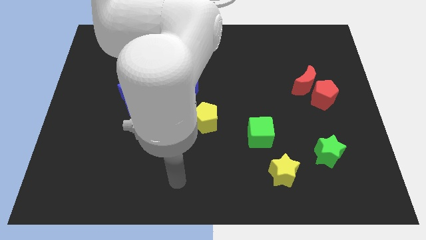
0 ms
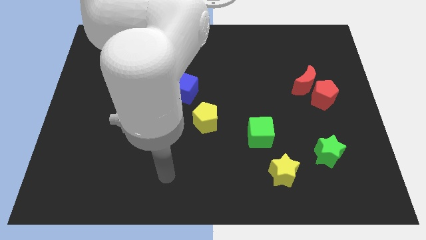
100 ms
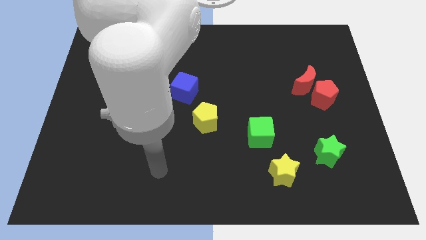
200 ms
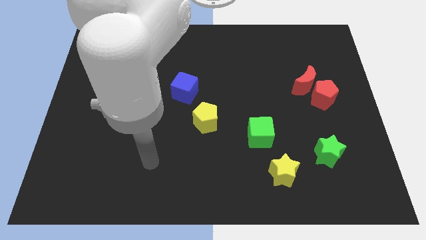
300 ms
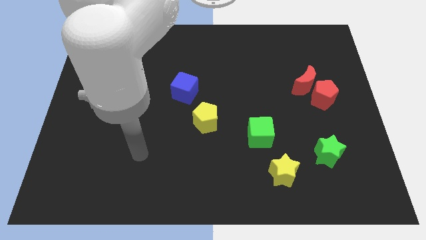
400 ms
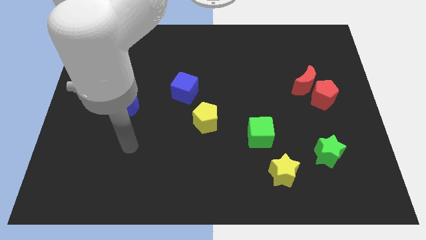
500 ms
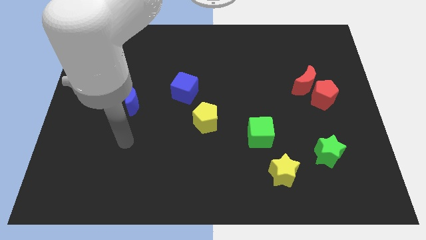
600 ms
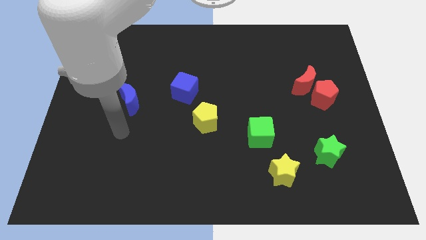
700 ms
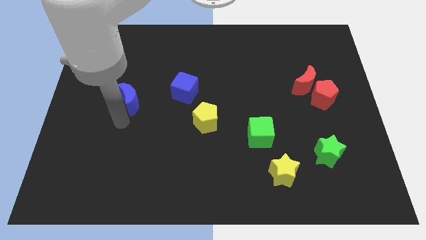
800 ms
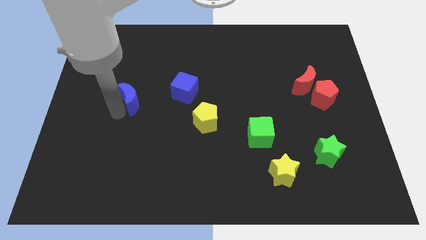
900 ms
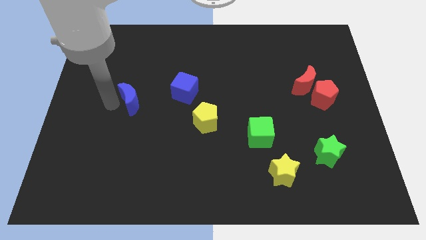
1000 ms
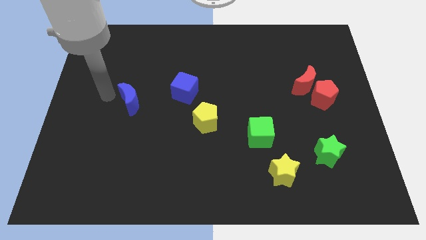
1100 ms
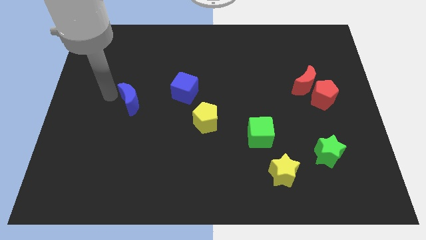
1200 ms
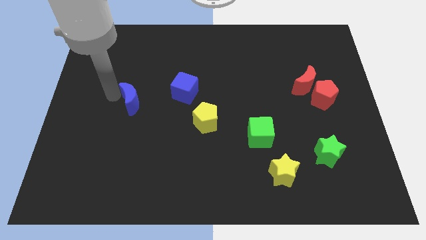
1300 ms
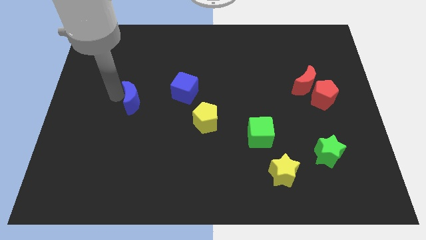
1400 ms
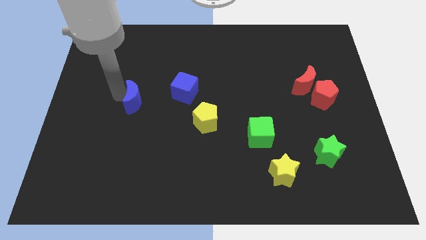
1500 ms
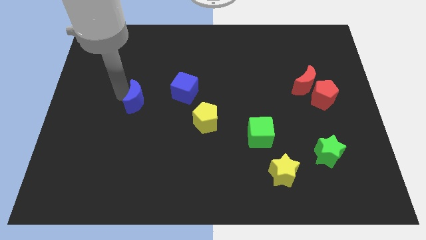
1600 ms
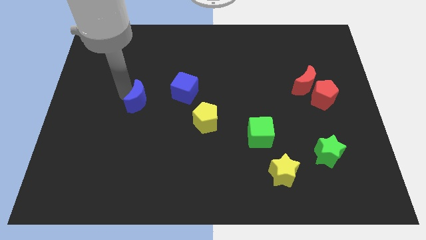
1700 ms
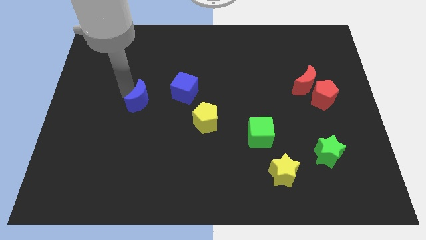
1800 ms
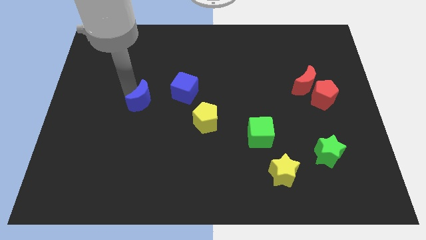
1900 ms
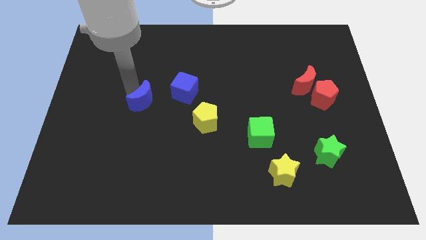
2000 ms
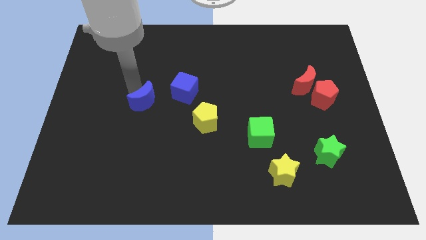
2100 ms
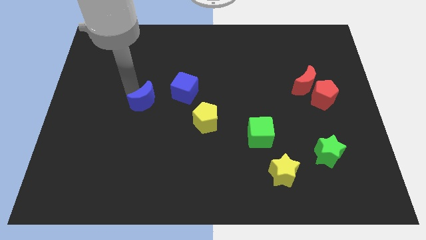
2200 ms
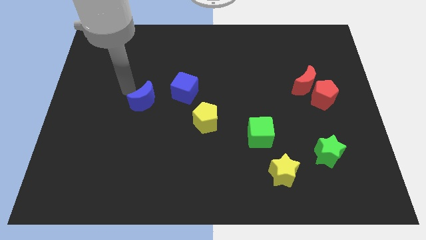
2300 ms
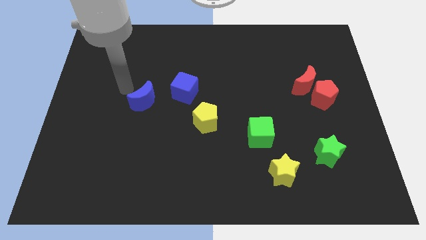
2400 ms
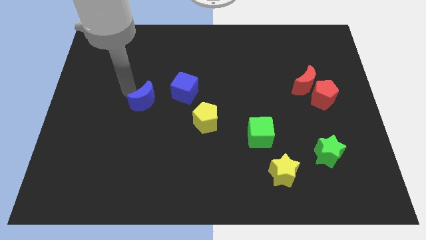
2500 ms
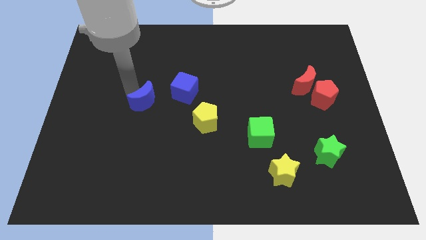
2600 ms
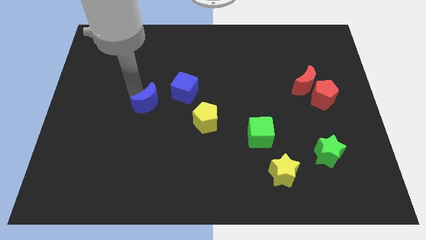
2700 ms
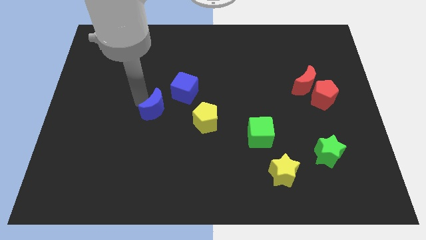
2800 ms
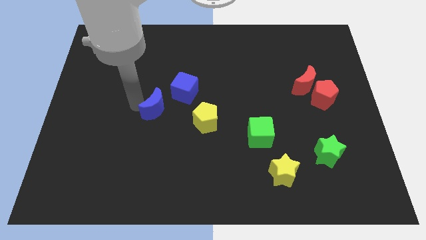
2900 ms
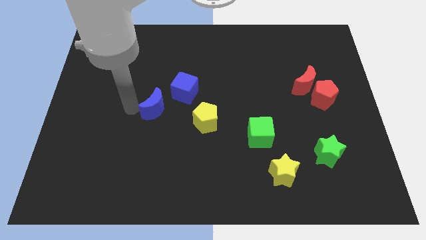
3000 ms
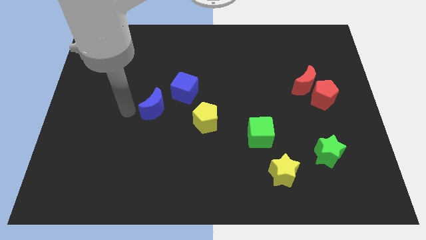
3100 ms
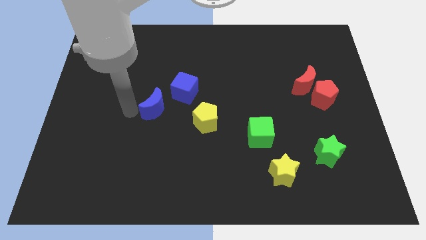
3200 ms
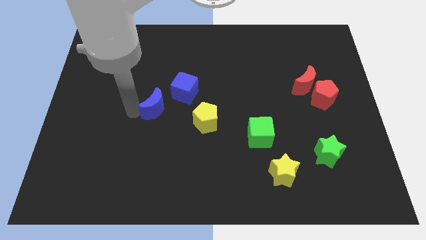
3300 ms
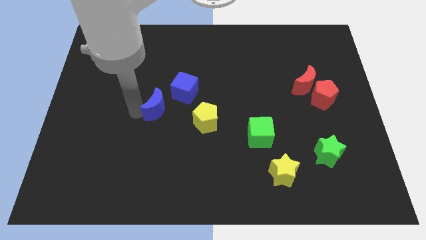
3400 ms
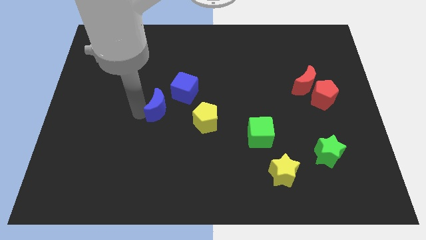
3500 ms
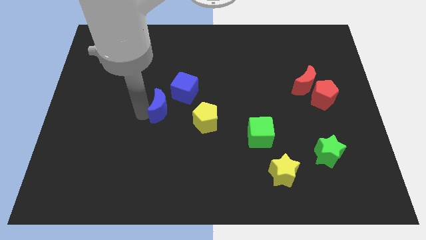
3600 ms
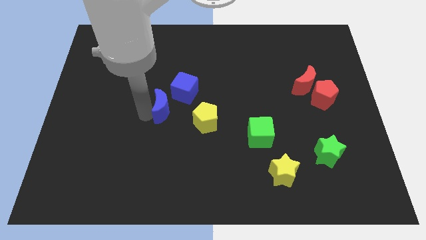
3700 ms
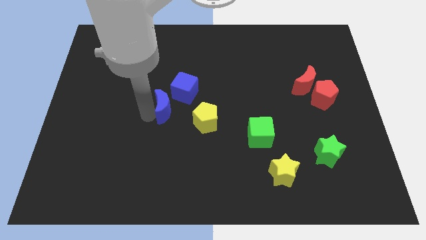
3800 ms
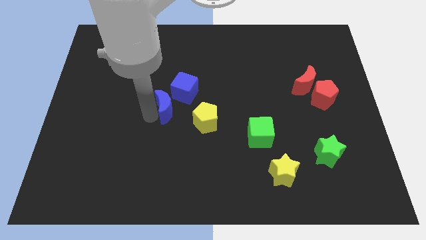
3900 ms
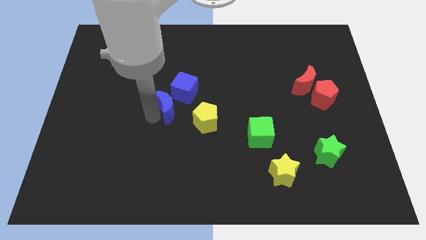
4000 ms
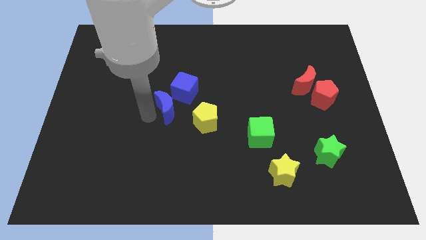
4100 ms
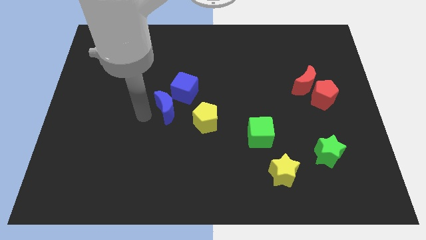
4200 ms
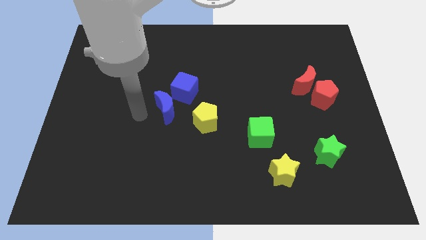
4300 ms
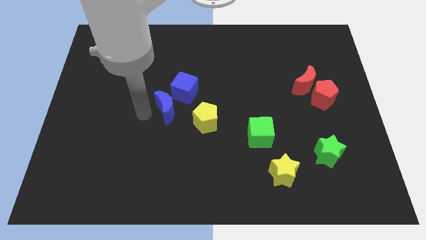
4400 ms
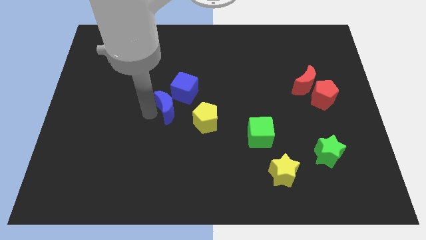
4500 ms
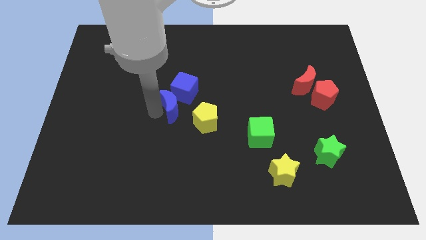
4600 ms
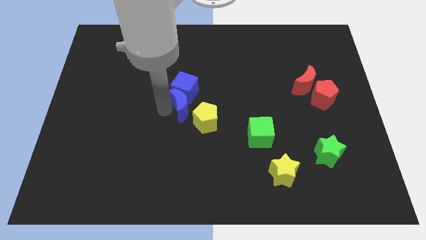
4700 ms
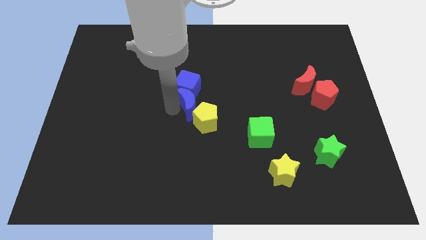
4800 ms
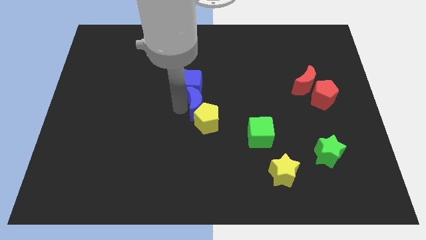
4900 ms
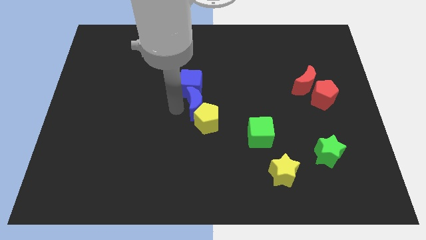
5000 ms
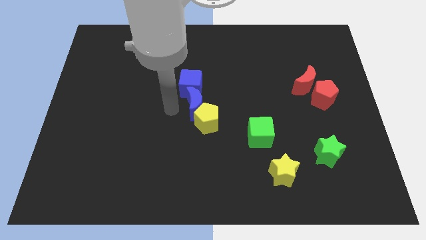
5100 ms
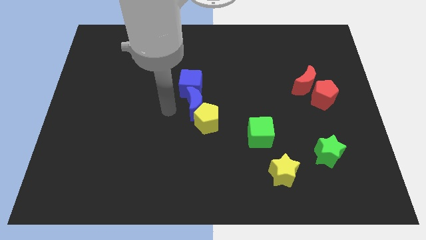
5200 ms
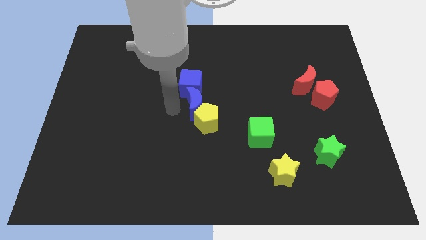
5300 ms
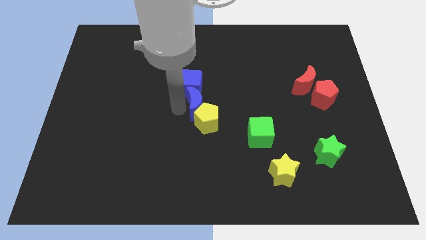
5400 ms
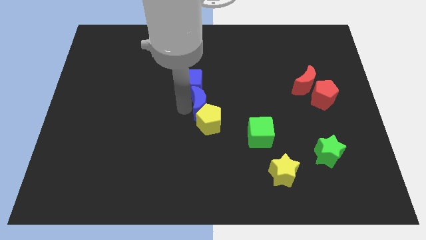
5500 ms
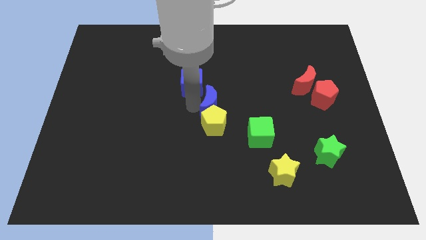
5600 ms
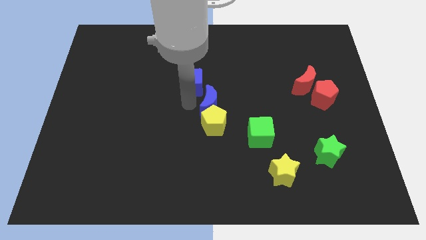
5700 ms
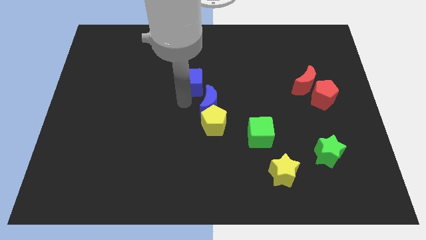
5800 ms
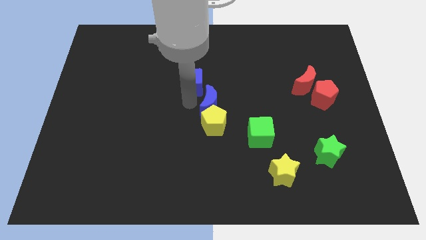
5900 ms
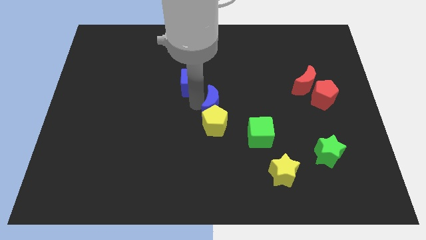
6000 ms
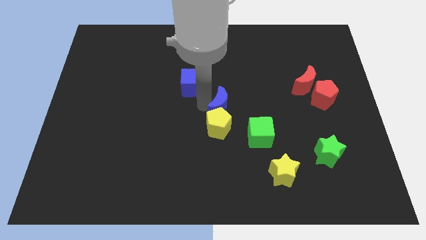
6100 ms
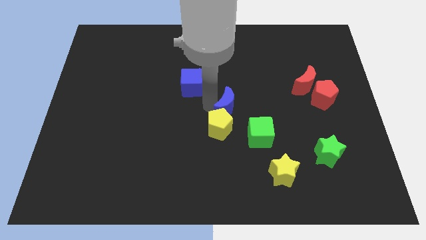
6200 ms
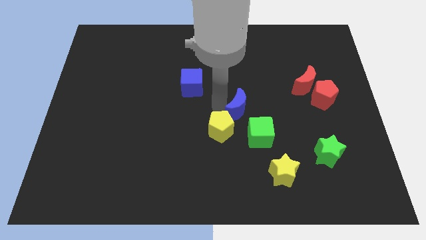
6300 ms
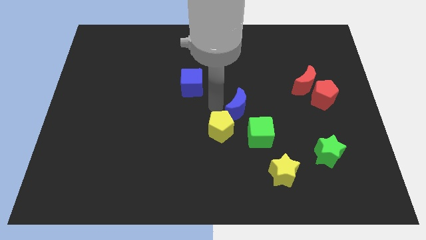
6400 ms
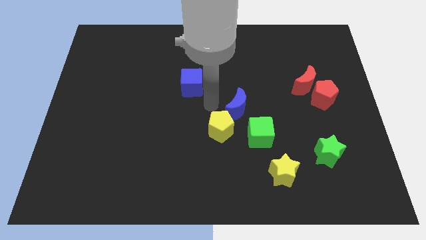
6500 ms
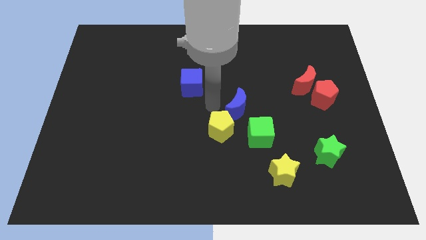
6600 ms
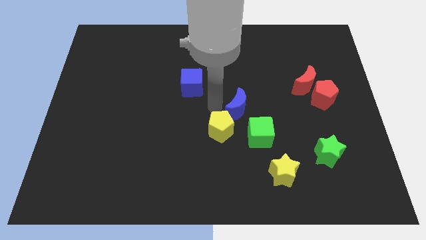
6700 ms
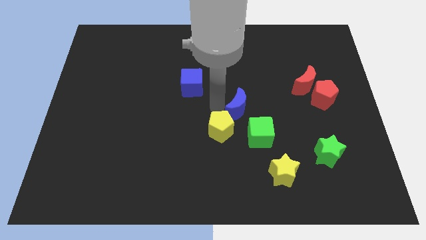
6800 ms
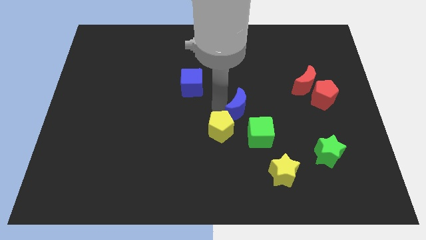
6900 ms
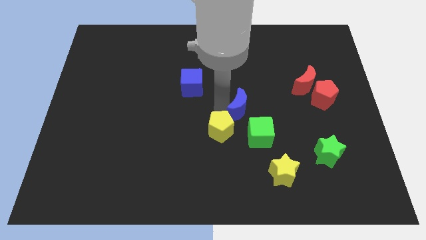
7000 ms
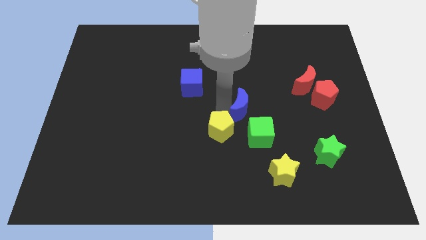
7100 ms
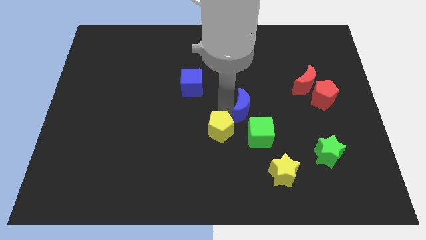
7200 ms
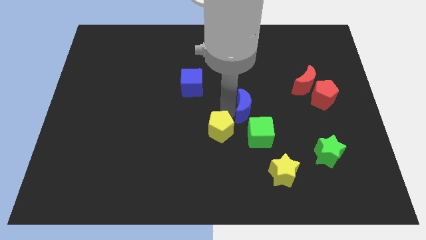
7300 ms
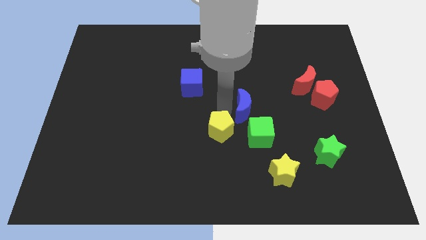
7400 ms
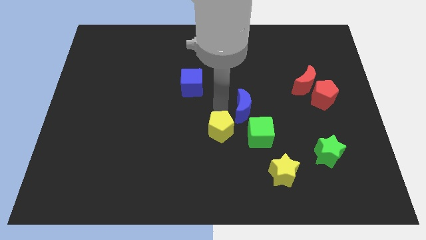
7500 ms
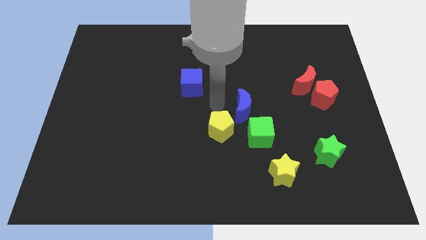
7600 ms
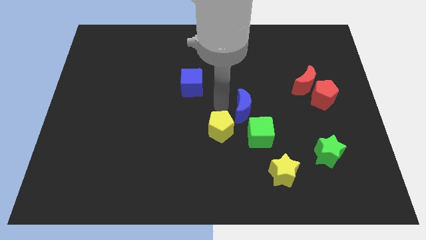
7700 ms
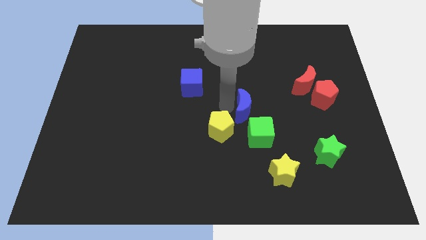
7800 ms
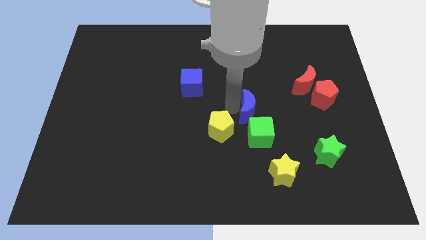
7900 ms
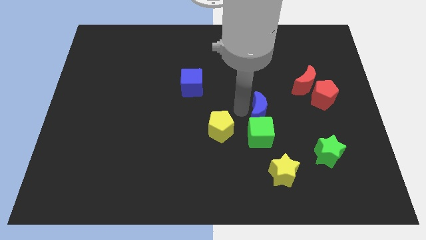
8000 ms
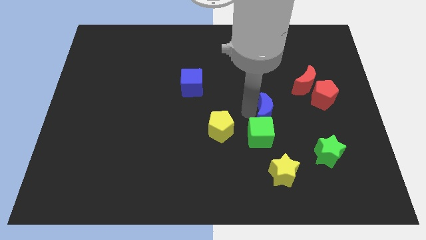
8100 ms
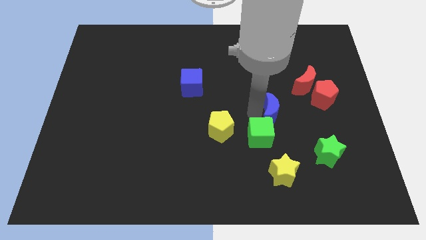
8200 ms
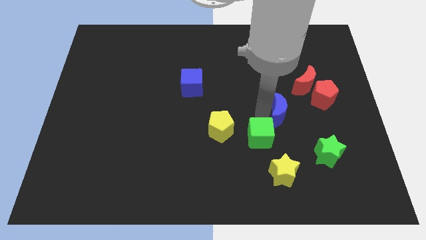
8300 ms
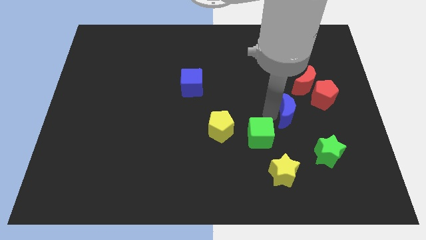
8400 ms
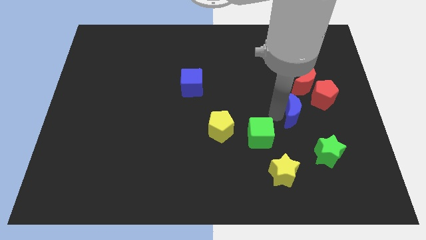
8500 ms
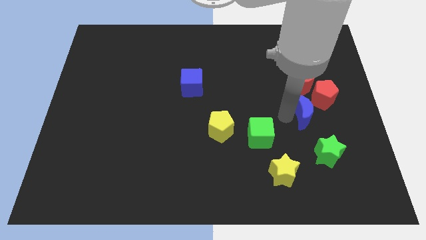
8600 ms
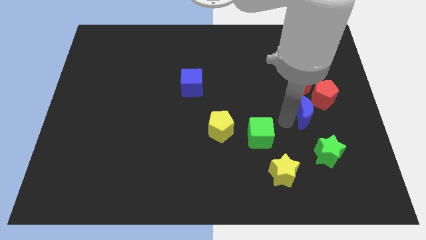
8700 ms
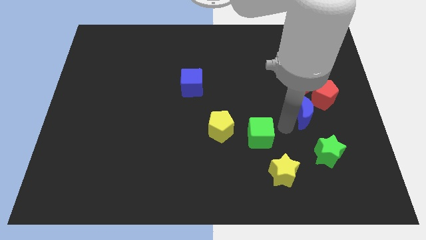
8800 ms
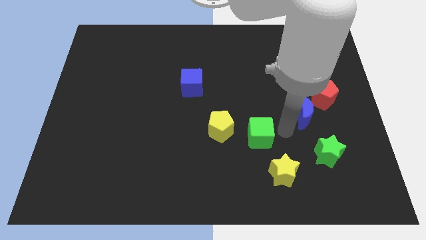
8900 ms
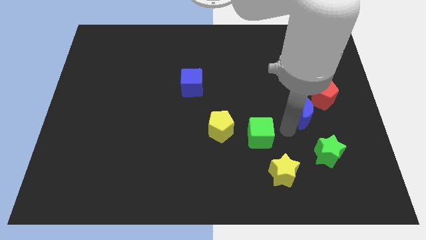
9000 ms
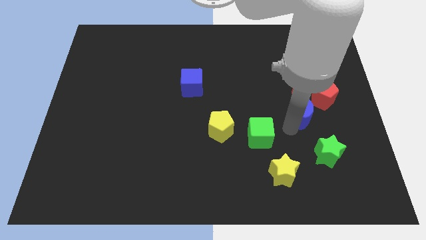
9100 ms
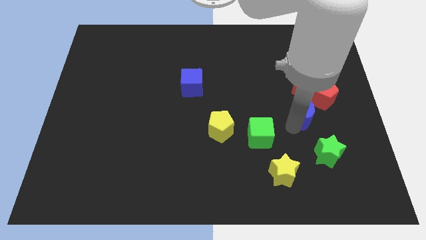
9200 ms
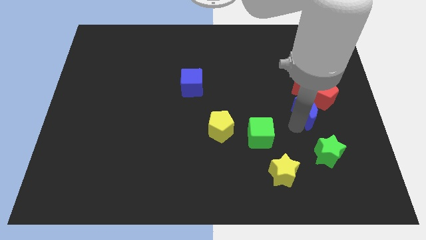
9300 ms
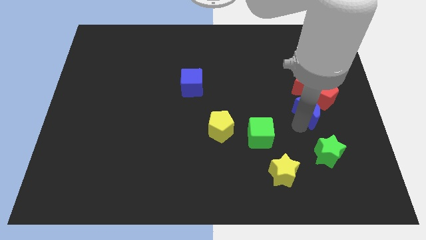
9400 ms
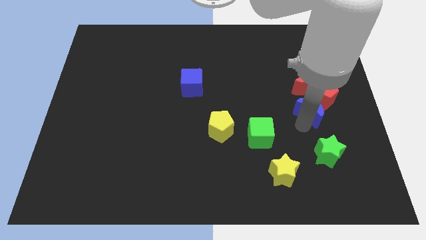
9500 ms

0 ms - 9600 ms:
slide the blue moon close to the red pentagon
